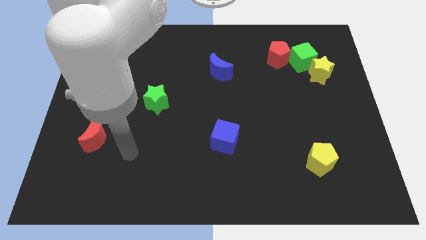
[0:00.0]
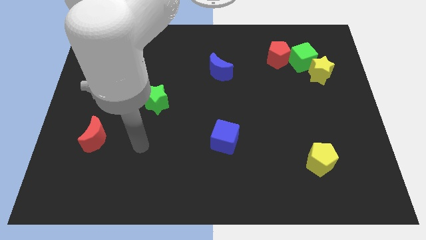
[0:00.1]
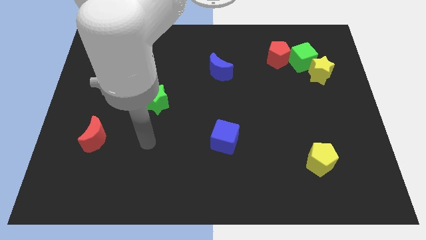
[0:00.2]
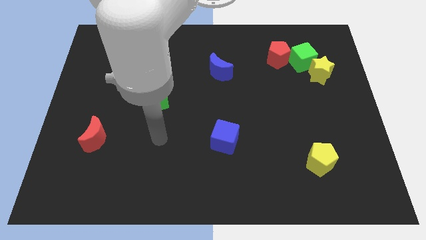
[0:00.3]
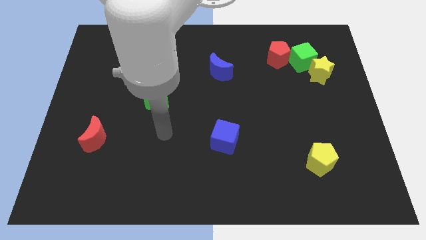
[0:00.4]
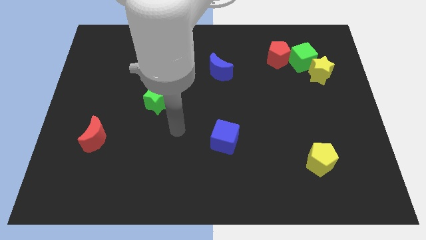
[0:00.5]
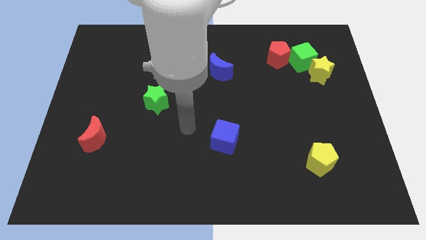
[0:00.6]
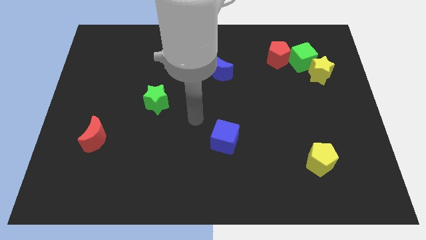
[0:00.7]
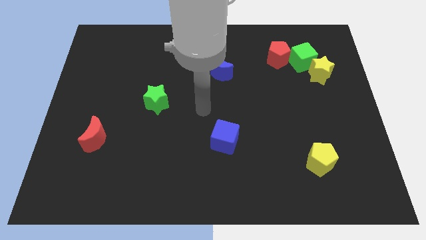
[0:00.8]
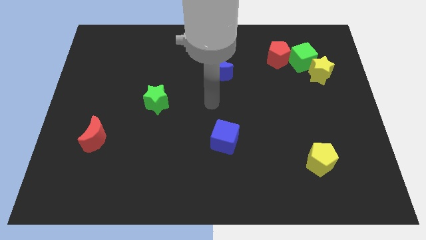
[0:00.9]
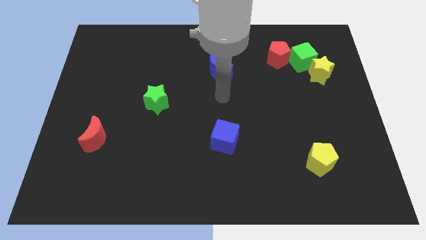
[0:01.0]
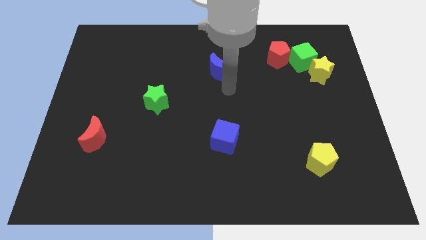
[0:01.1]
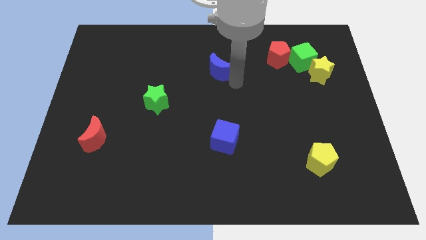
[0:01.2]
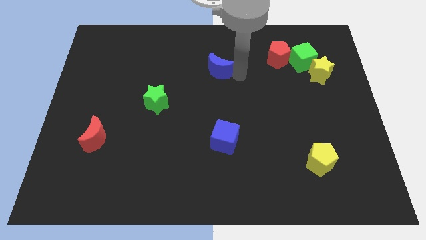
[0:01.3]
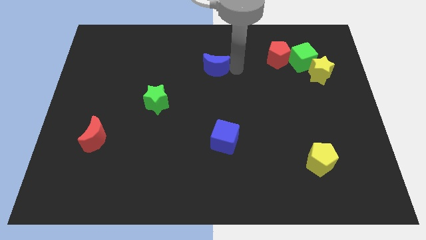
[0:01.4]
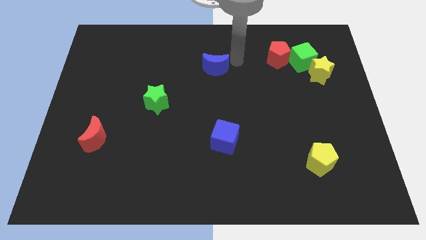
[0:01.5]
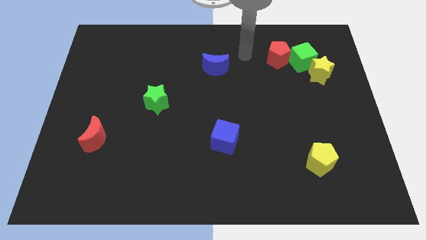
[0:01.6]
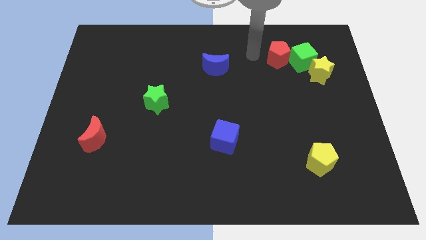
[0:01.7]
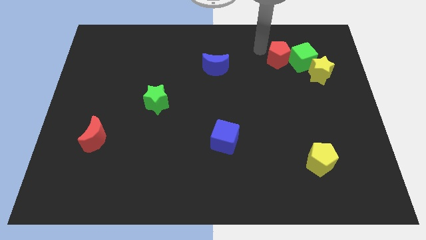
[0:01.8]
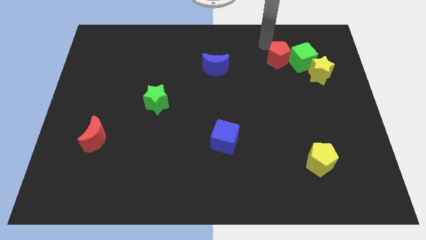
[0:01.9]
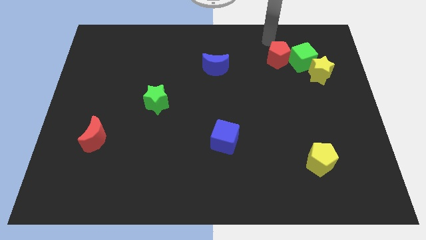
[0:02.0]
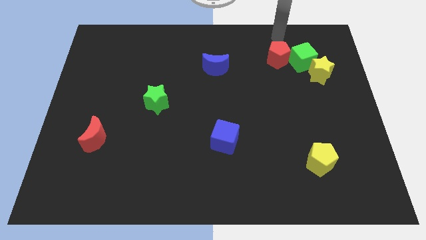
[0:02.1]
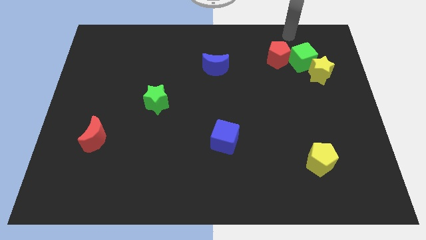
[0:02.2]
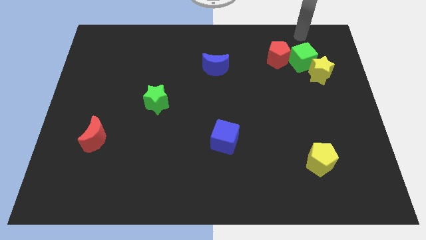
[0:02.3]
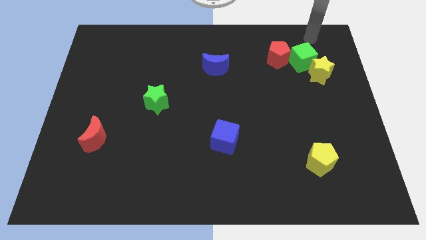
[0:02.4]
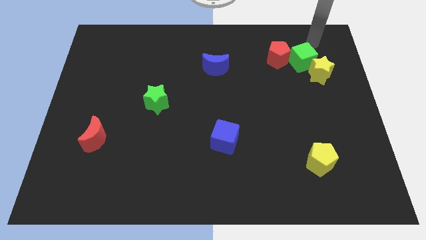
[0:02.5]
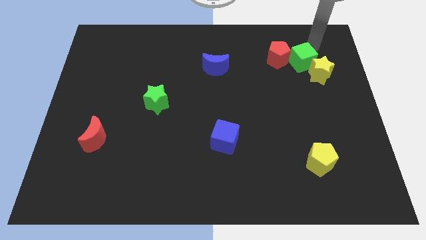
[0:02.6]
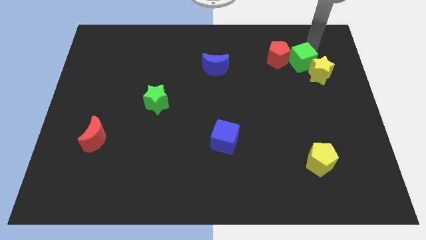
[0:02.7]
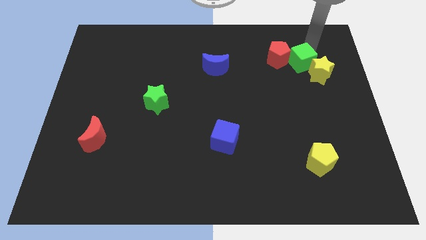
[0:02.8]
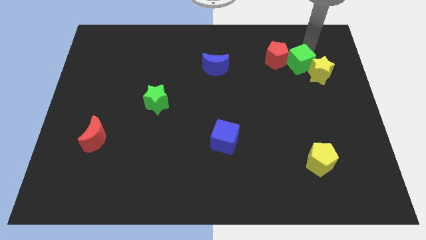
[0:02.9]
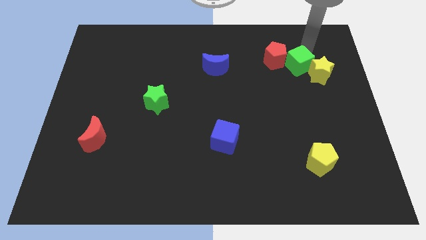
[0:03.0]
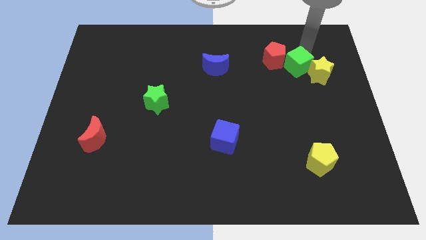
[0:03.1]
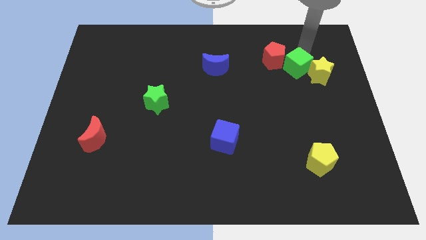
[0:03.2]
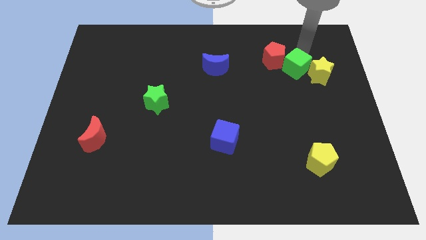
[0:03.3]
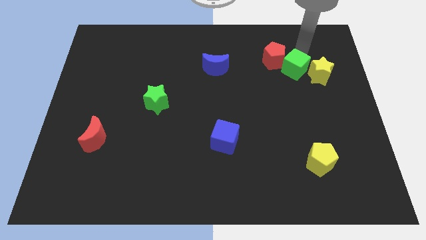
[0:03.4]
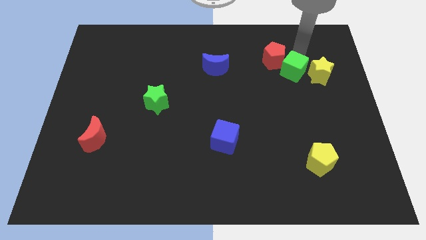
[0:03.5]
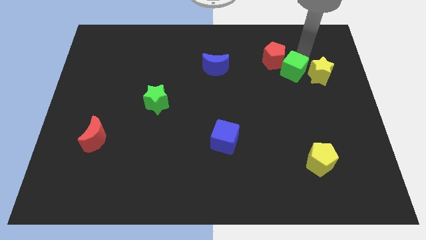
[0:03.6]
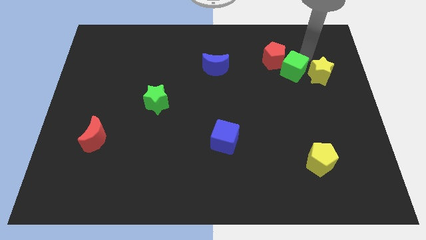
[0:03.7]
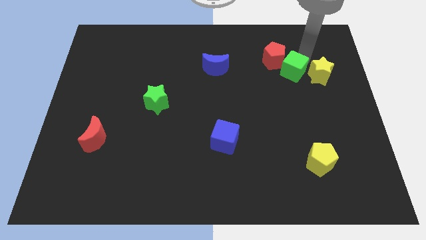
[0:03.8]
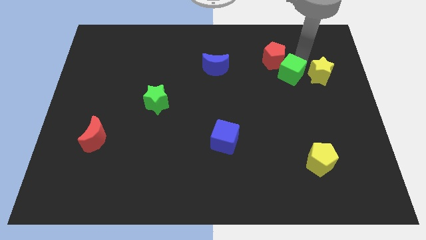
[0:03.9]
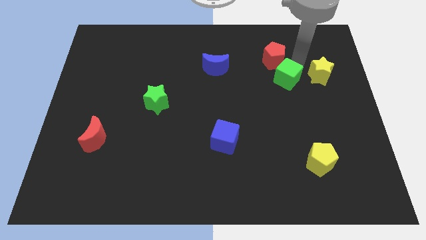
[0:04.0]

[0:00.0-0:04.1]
push the green cube diagonally down and left a bit

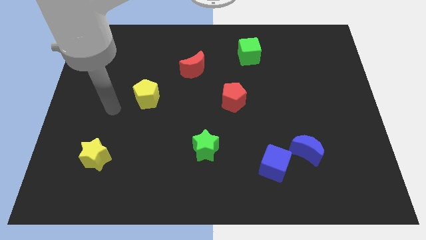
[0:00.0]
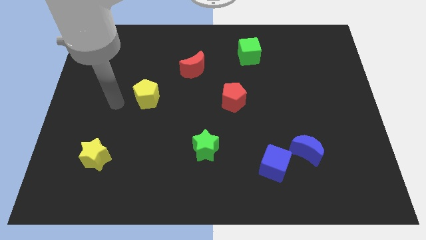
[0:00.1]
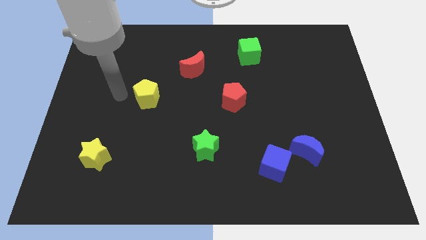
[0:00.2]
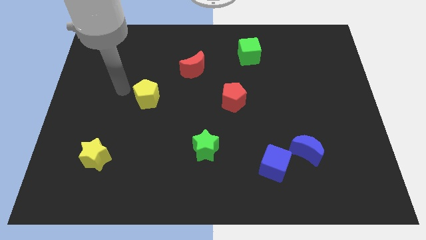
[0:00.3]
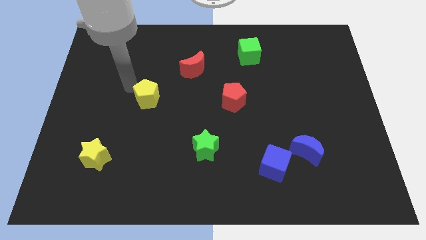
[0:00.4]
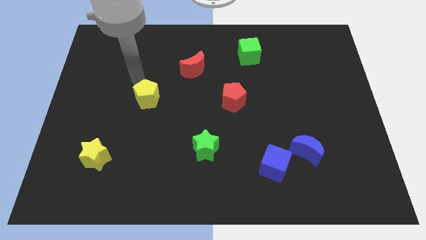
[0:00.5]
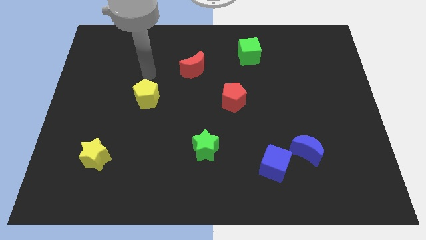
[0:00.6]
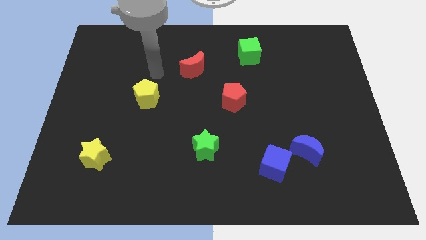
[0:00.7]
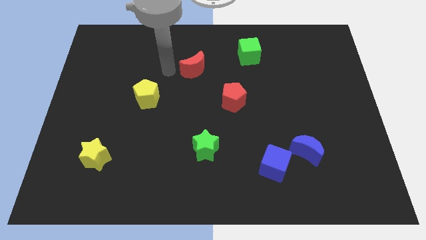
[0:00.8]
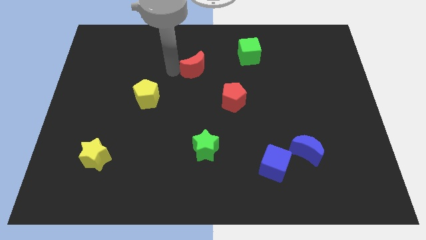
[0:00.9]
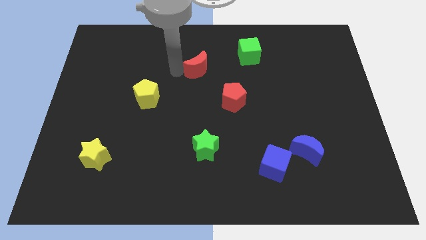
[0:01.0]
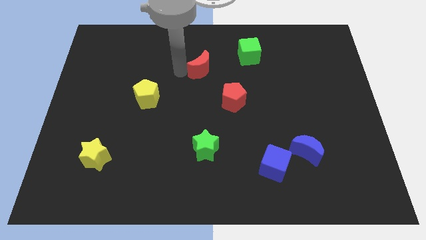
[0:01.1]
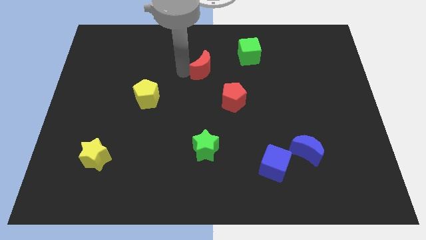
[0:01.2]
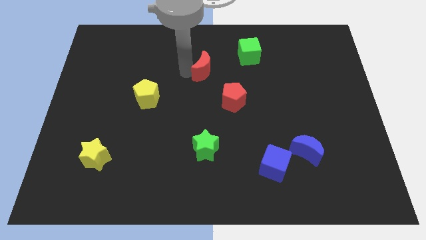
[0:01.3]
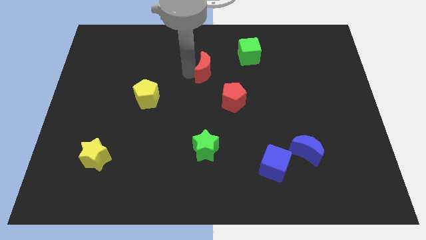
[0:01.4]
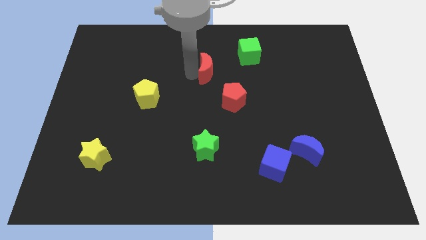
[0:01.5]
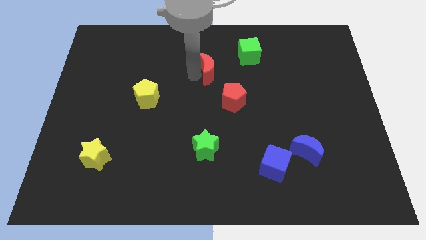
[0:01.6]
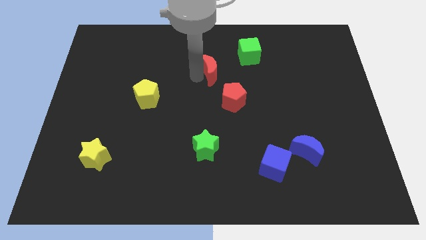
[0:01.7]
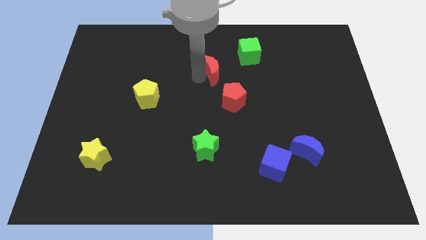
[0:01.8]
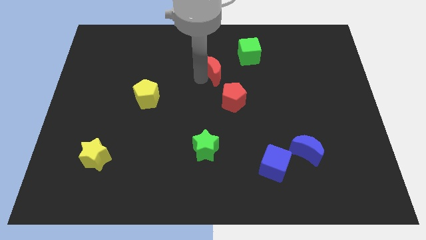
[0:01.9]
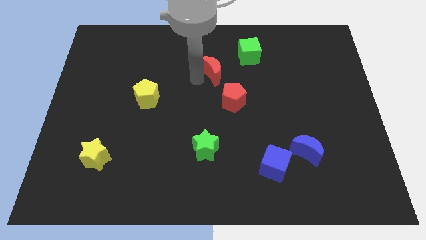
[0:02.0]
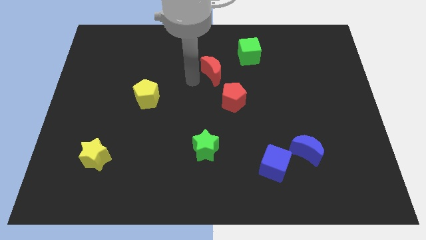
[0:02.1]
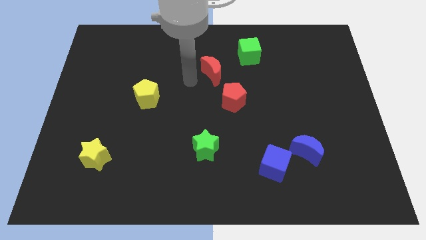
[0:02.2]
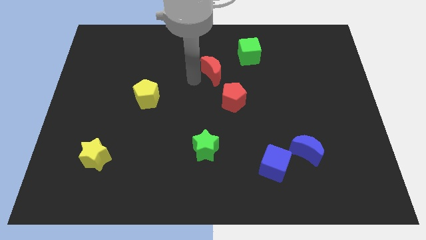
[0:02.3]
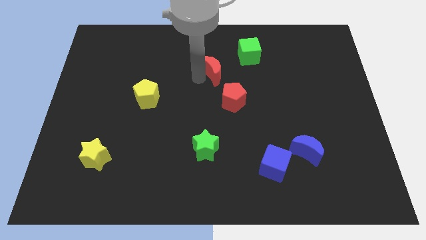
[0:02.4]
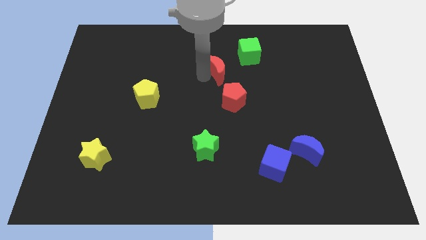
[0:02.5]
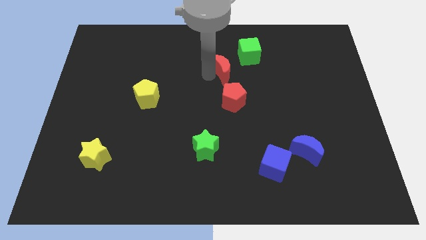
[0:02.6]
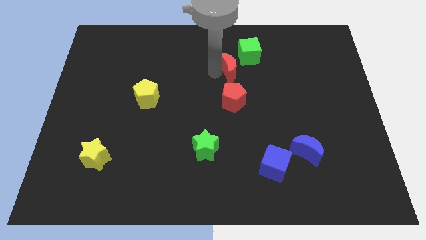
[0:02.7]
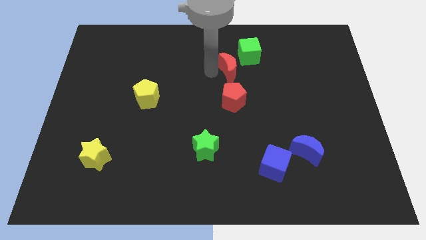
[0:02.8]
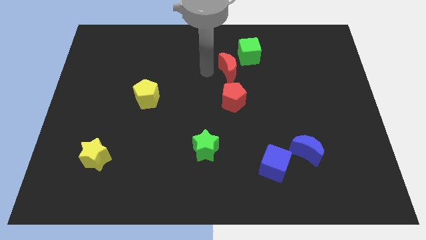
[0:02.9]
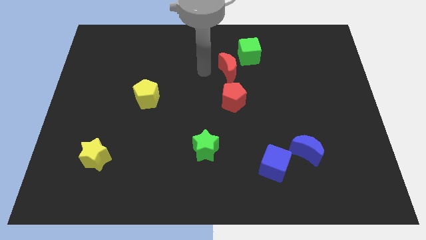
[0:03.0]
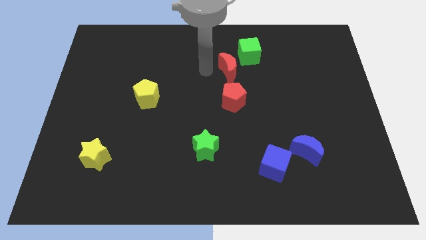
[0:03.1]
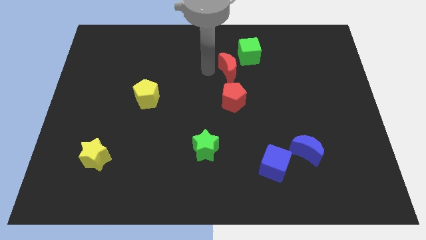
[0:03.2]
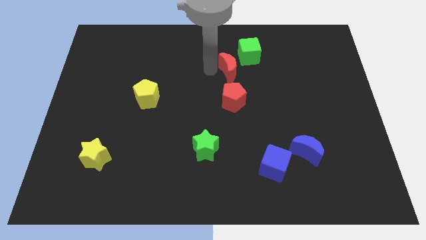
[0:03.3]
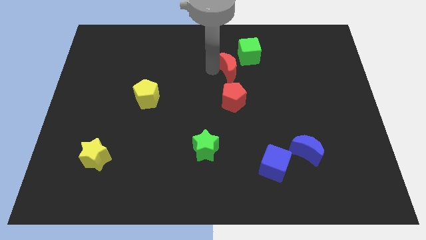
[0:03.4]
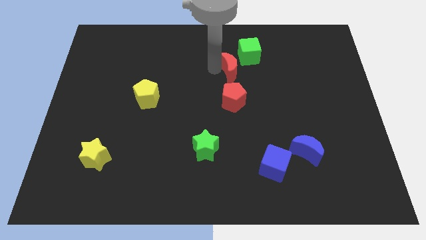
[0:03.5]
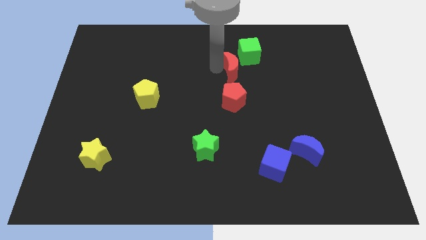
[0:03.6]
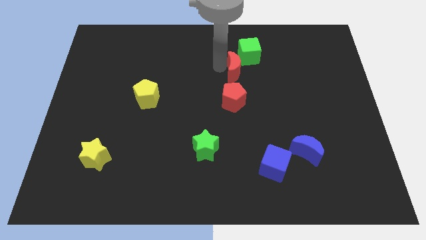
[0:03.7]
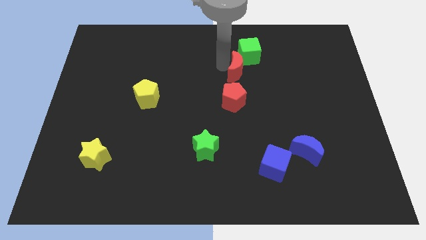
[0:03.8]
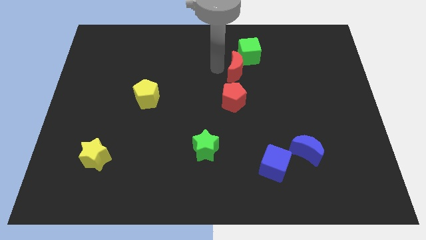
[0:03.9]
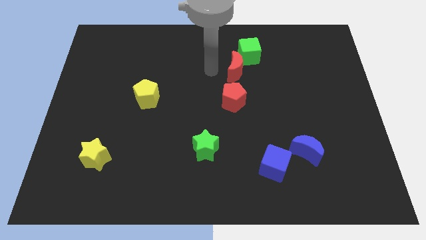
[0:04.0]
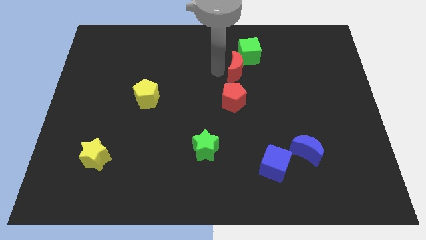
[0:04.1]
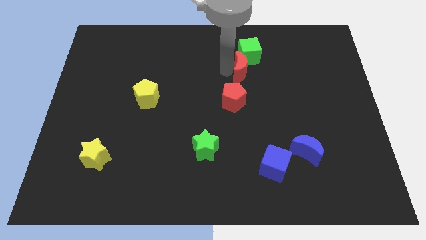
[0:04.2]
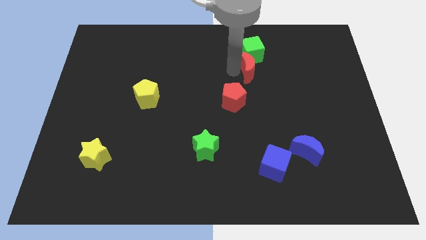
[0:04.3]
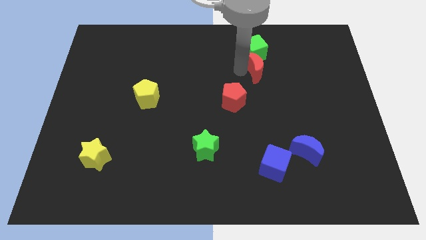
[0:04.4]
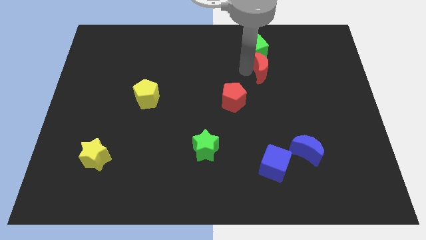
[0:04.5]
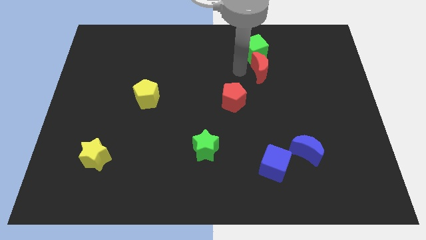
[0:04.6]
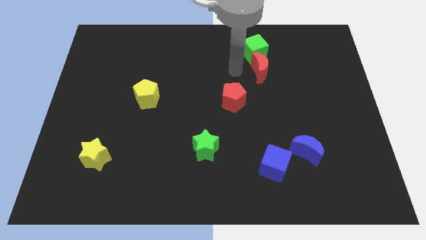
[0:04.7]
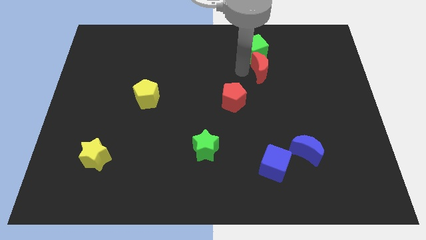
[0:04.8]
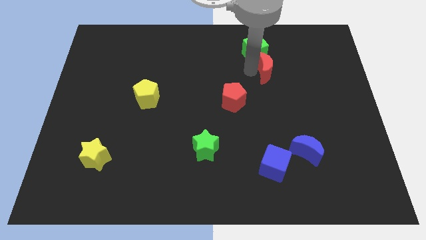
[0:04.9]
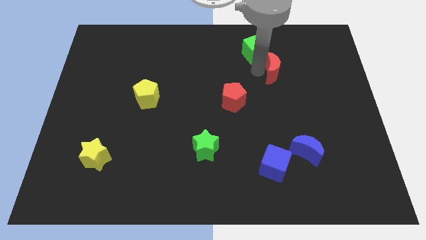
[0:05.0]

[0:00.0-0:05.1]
slide the red moon to the right
